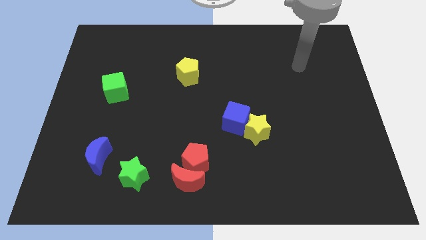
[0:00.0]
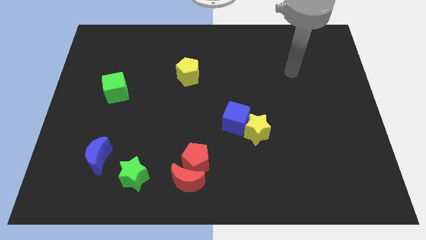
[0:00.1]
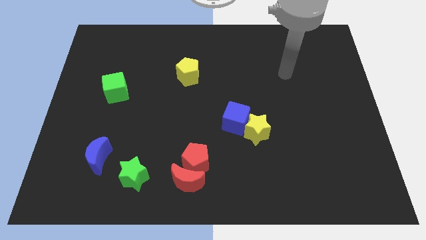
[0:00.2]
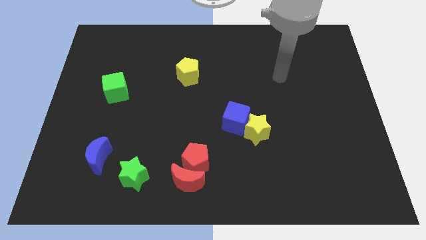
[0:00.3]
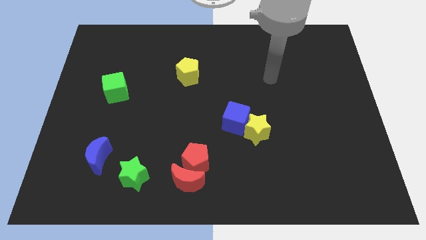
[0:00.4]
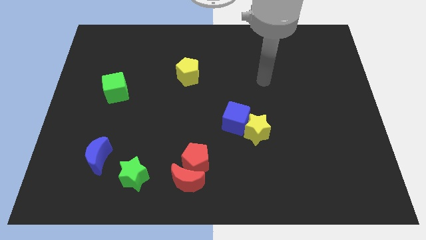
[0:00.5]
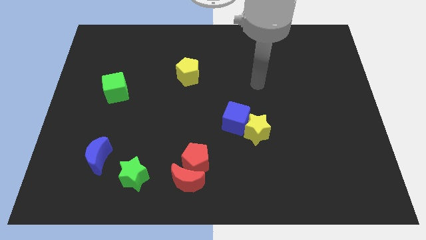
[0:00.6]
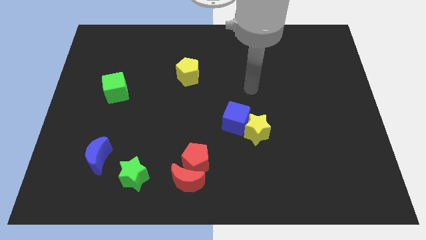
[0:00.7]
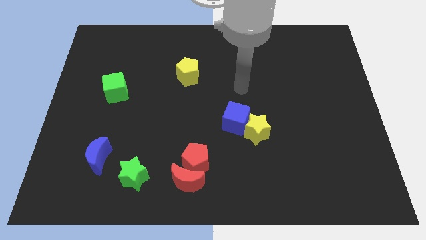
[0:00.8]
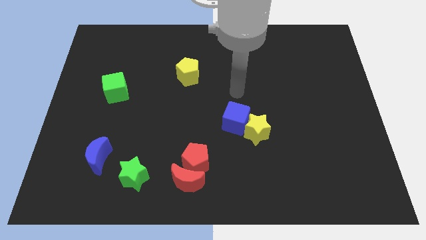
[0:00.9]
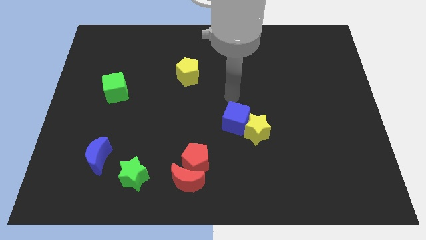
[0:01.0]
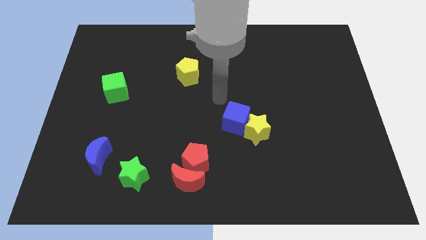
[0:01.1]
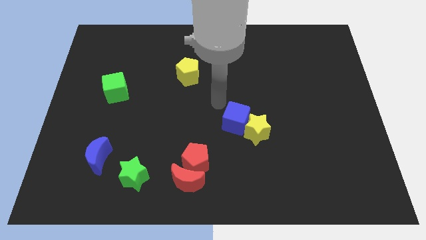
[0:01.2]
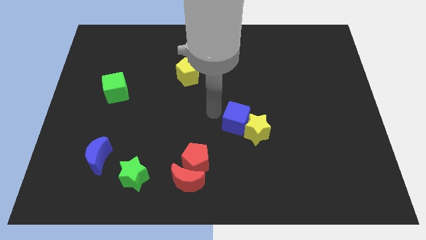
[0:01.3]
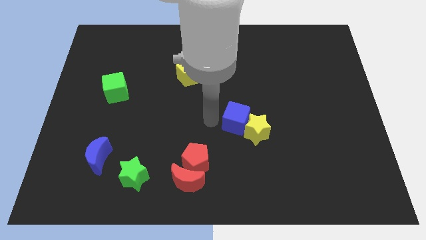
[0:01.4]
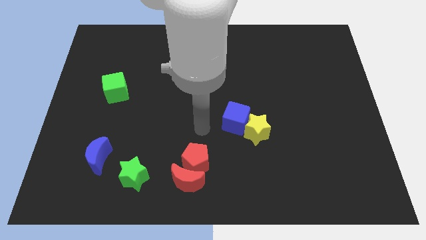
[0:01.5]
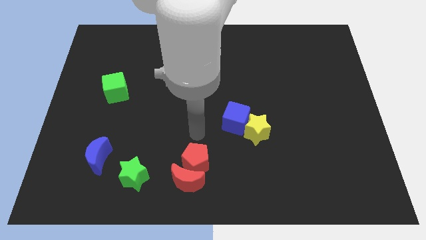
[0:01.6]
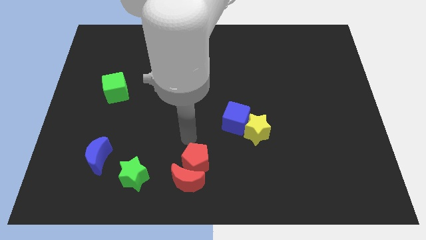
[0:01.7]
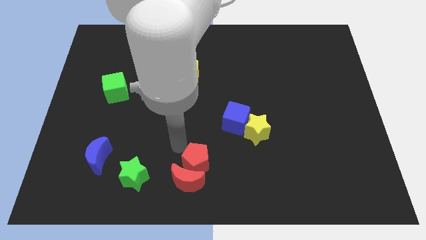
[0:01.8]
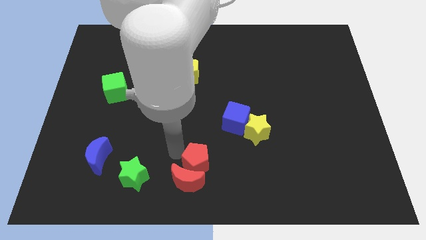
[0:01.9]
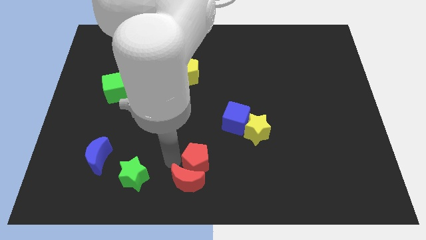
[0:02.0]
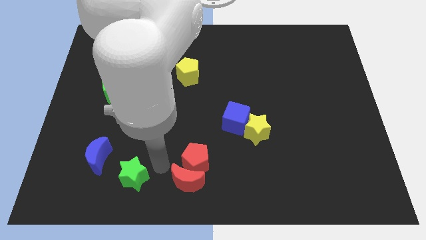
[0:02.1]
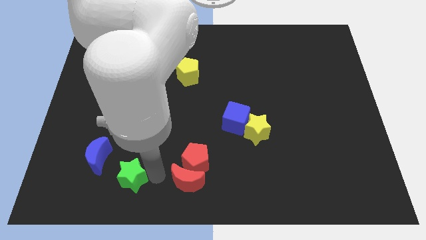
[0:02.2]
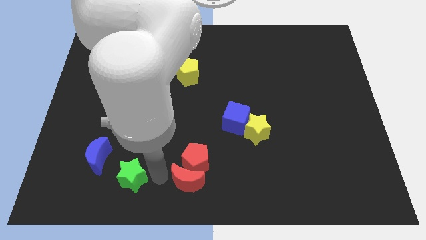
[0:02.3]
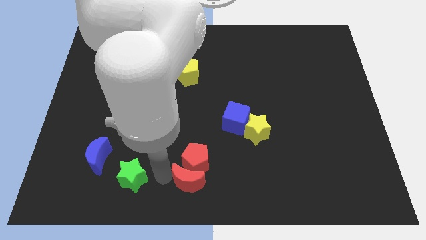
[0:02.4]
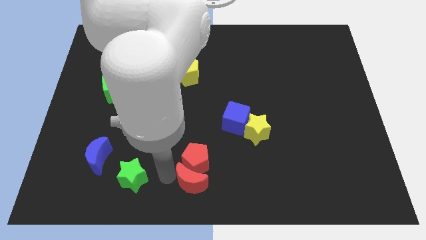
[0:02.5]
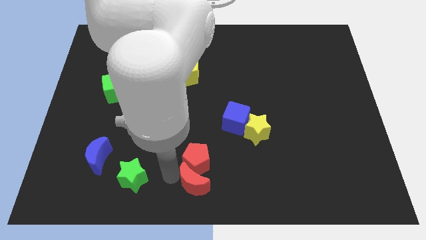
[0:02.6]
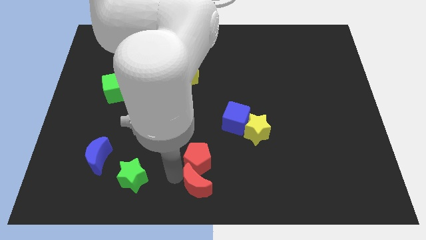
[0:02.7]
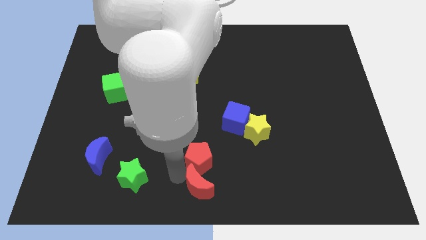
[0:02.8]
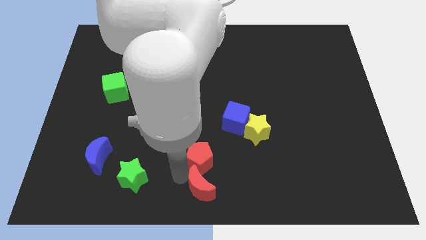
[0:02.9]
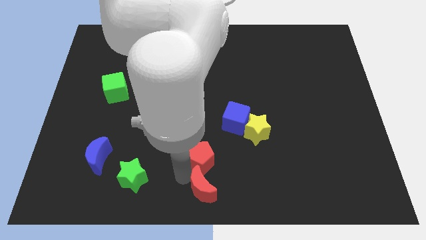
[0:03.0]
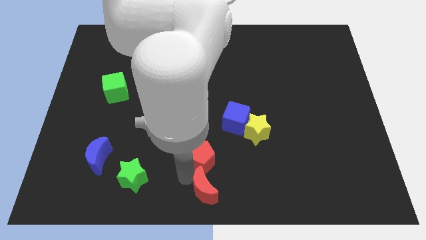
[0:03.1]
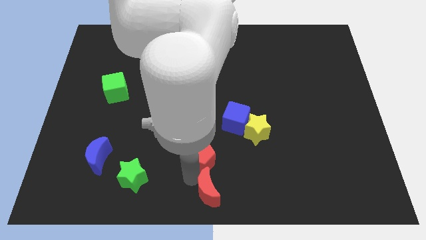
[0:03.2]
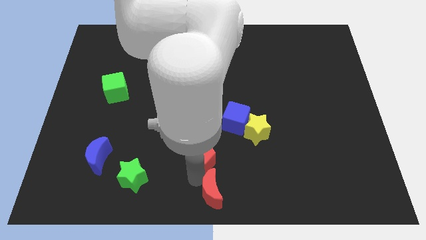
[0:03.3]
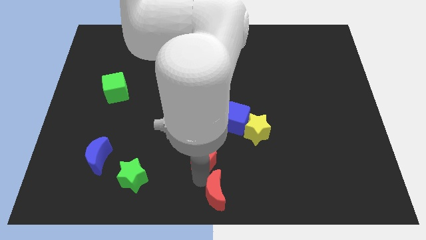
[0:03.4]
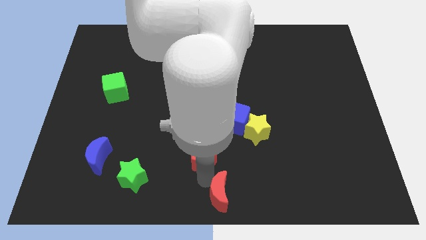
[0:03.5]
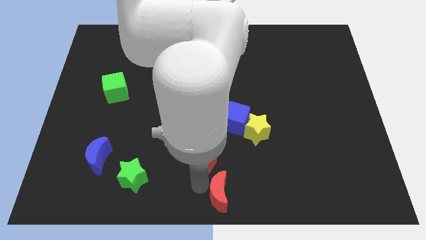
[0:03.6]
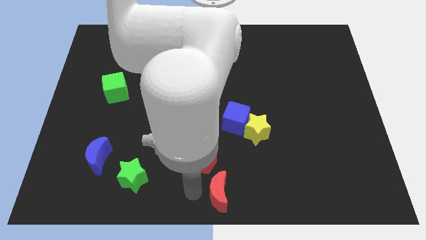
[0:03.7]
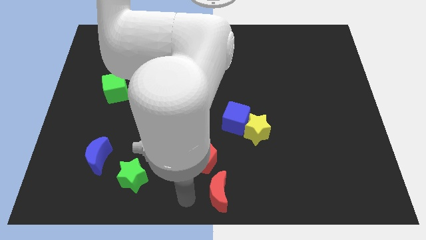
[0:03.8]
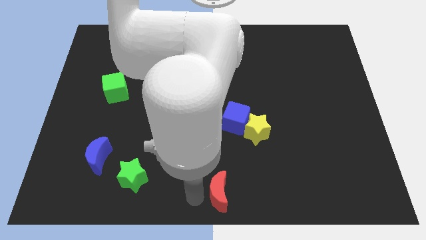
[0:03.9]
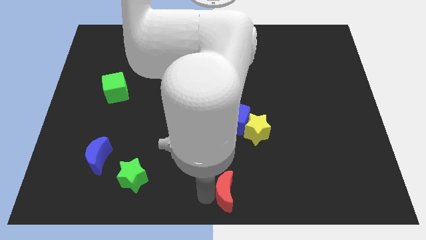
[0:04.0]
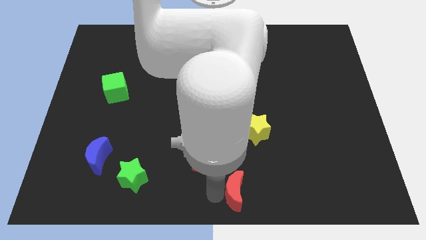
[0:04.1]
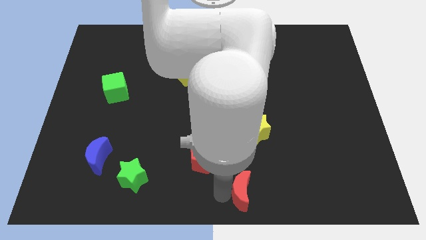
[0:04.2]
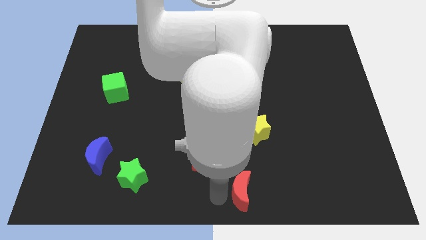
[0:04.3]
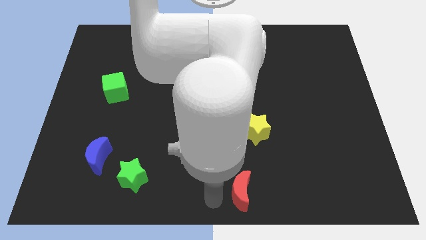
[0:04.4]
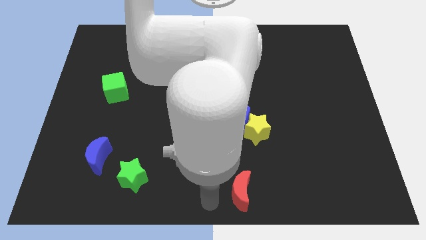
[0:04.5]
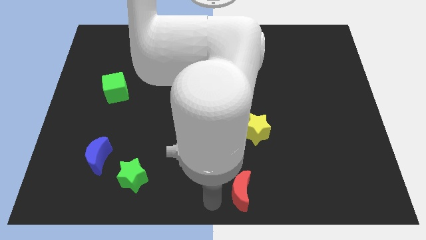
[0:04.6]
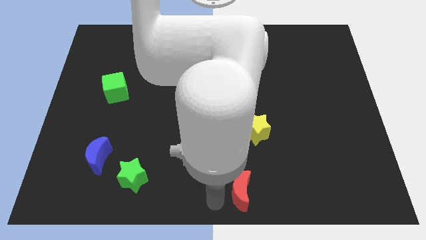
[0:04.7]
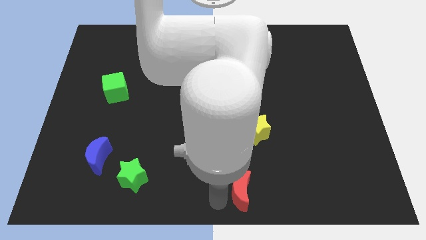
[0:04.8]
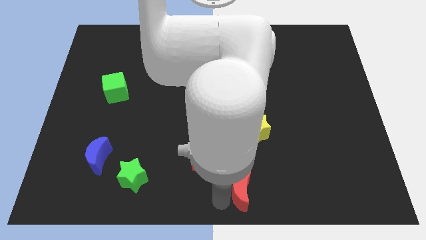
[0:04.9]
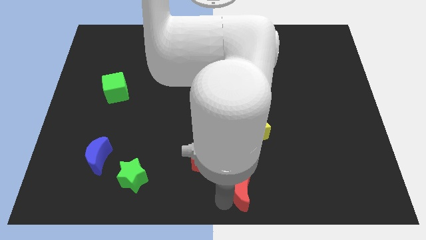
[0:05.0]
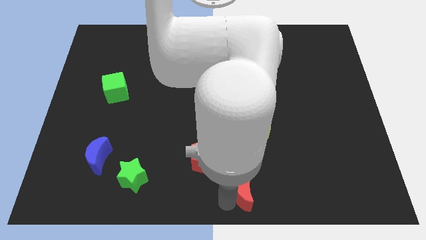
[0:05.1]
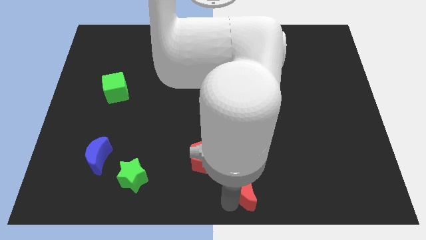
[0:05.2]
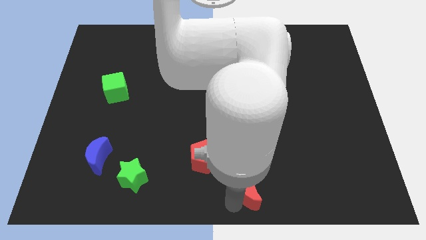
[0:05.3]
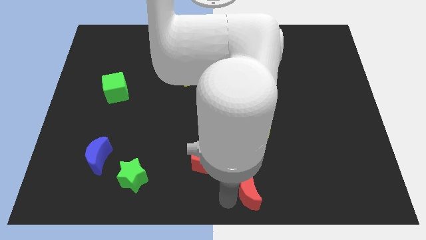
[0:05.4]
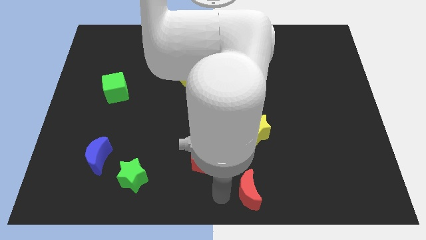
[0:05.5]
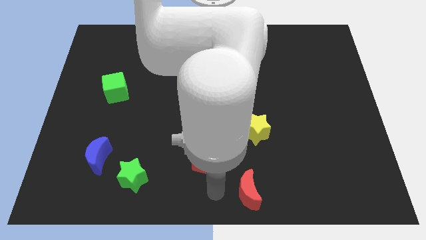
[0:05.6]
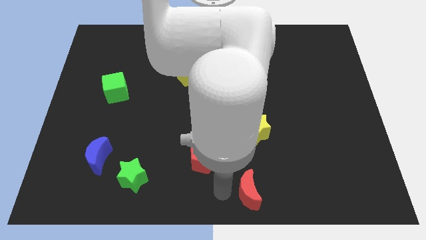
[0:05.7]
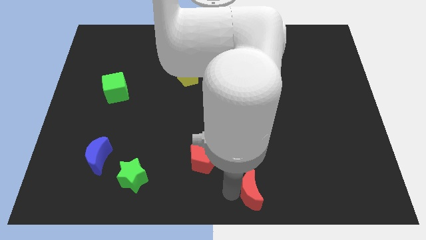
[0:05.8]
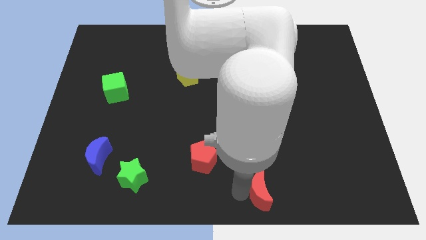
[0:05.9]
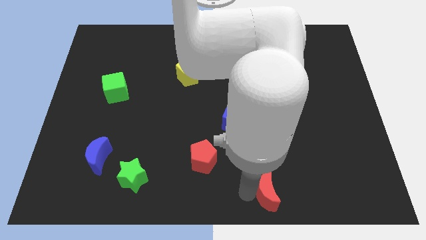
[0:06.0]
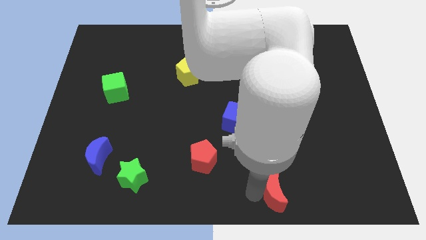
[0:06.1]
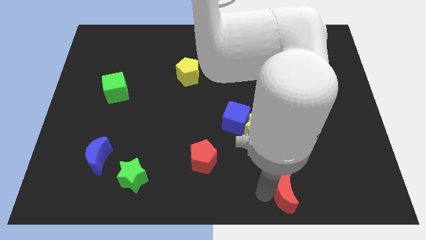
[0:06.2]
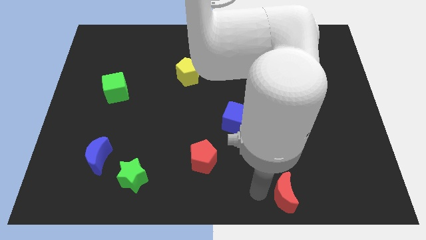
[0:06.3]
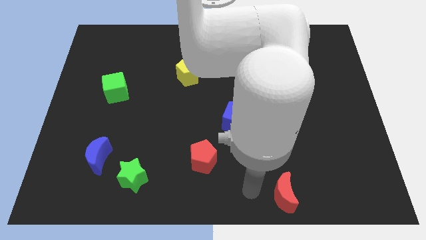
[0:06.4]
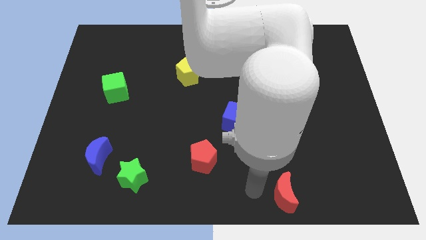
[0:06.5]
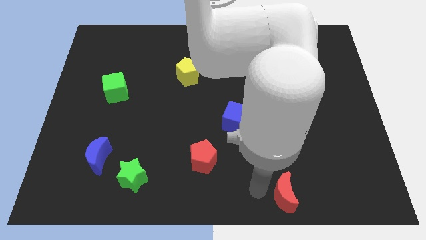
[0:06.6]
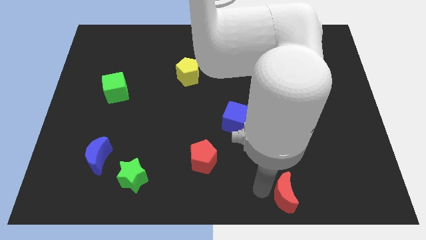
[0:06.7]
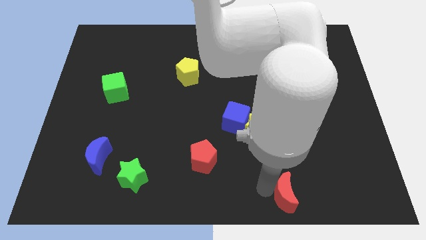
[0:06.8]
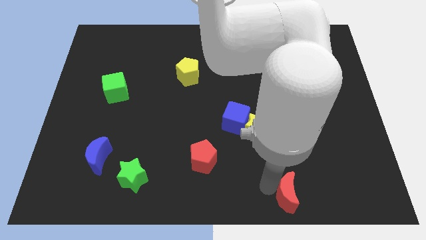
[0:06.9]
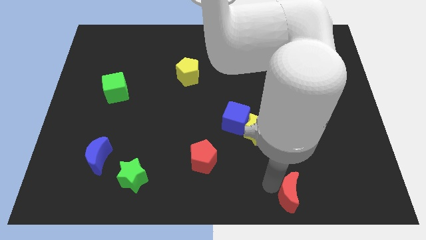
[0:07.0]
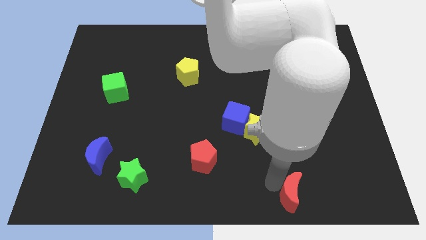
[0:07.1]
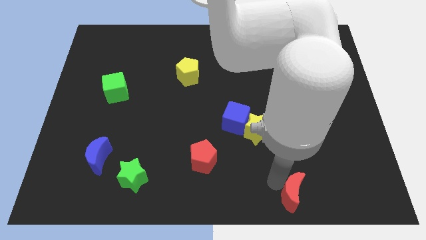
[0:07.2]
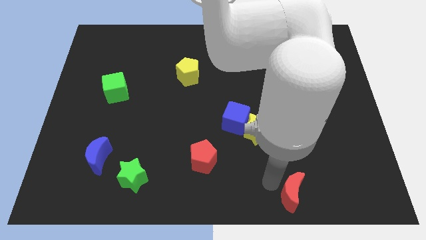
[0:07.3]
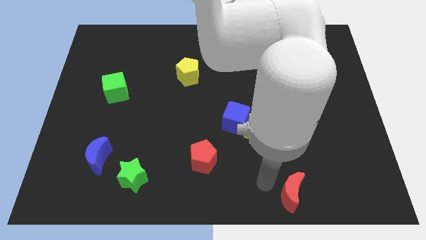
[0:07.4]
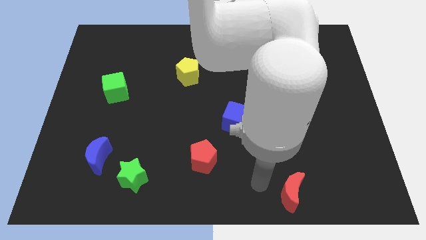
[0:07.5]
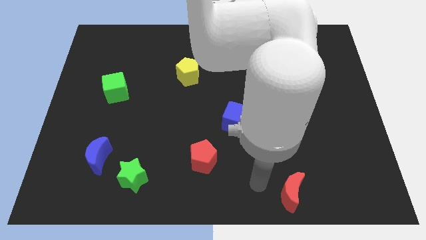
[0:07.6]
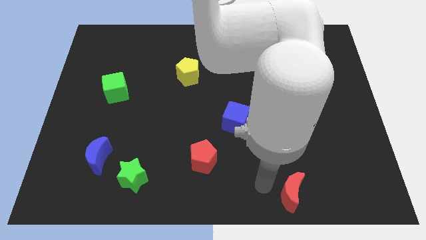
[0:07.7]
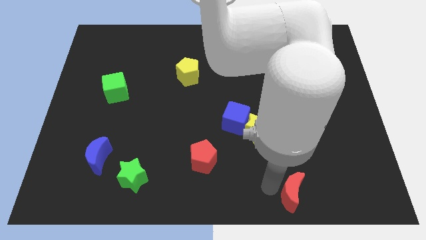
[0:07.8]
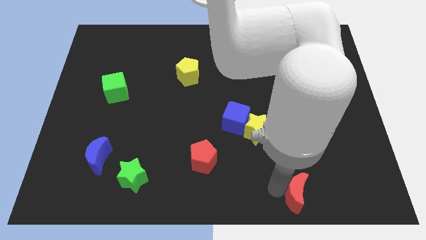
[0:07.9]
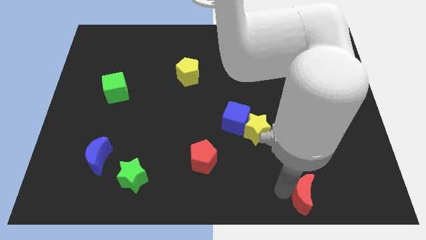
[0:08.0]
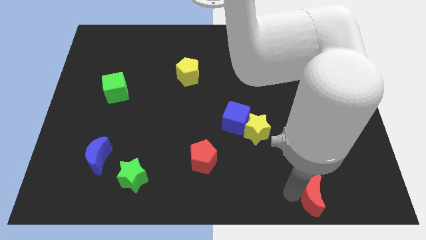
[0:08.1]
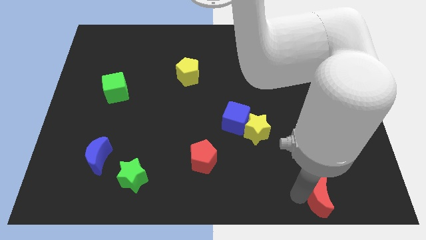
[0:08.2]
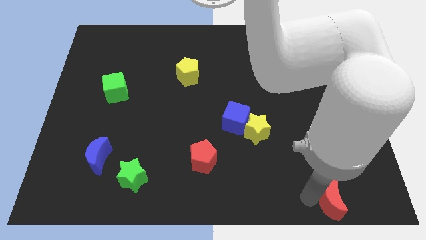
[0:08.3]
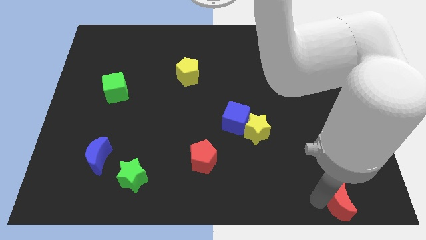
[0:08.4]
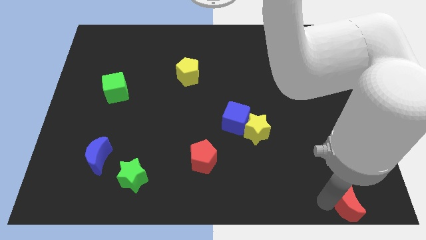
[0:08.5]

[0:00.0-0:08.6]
move the red moon to the lower right corner
